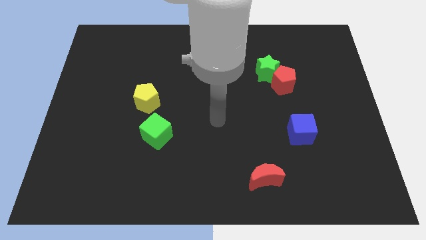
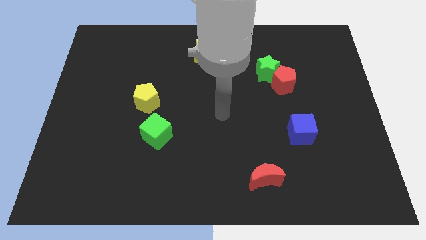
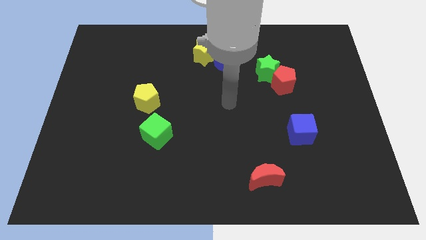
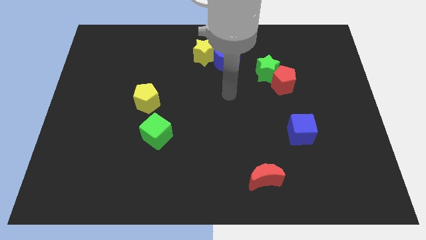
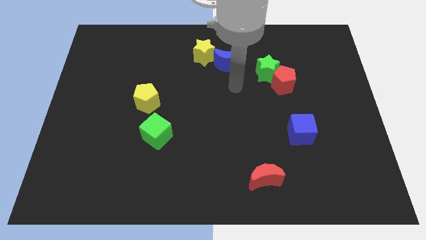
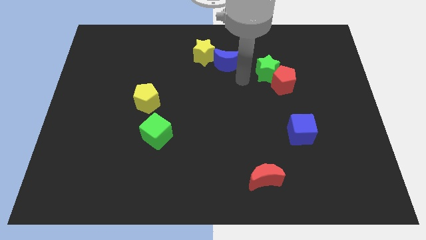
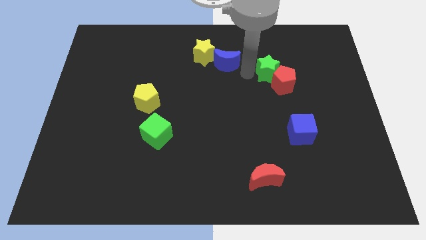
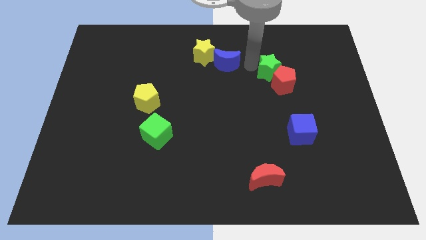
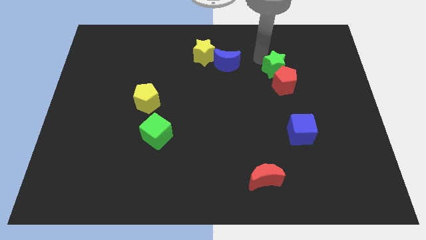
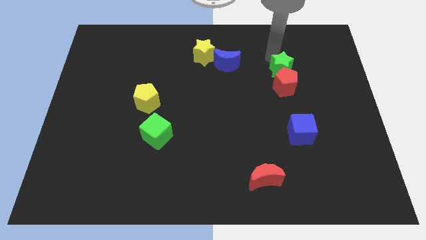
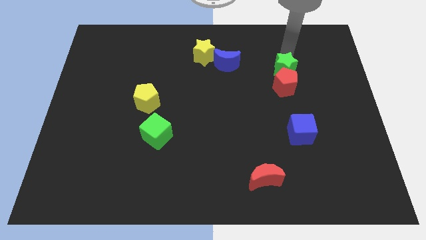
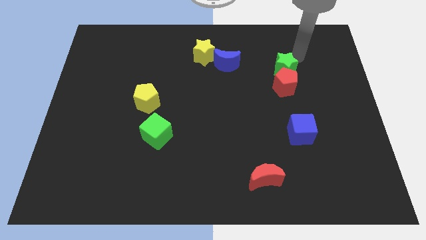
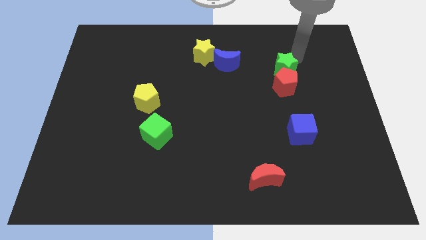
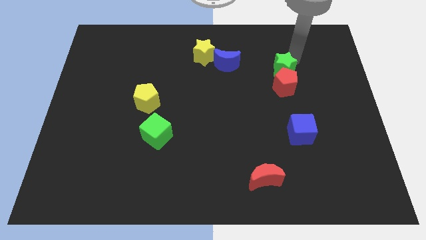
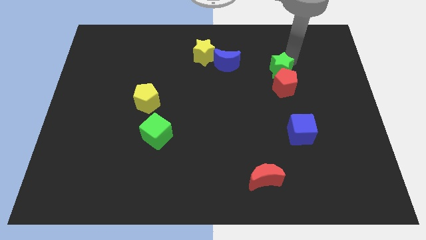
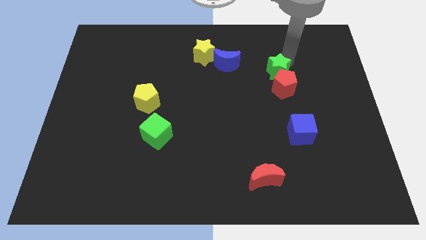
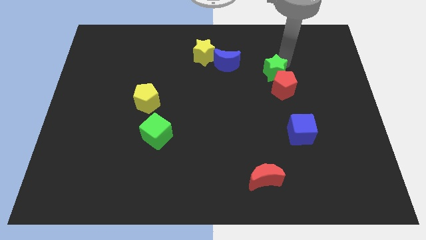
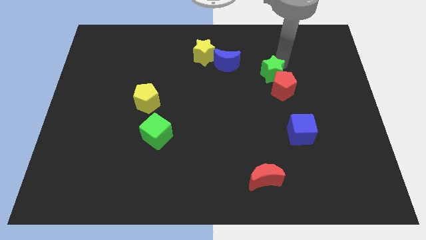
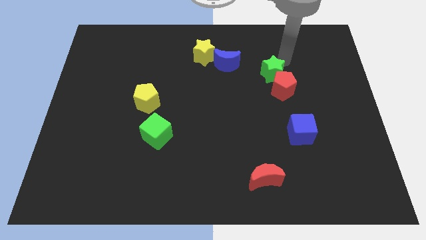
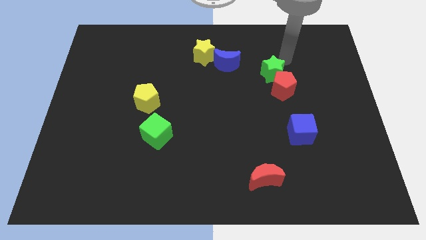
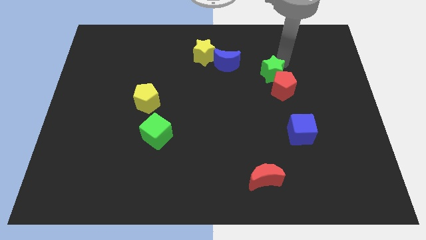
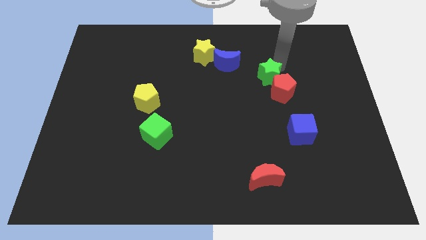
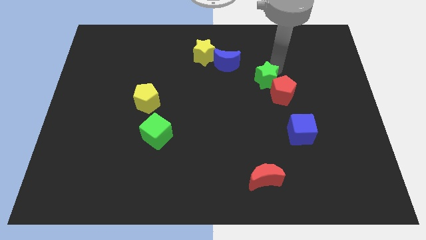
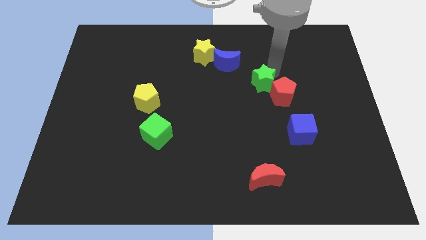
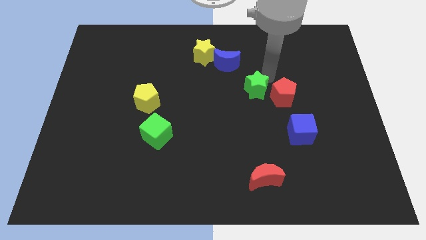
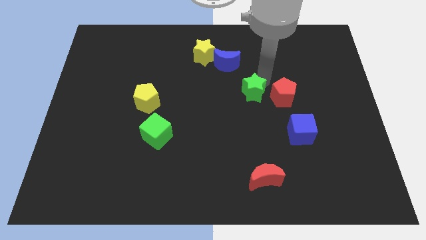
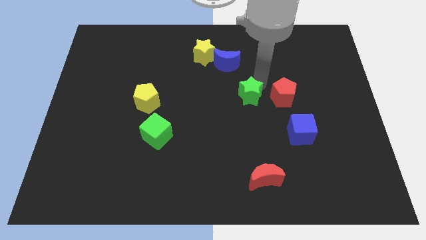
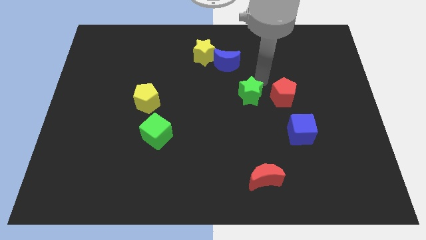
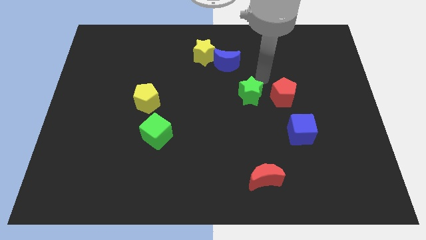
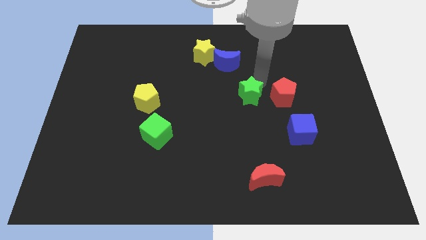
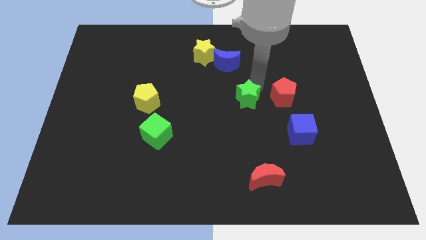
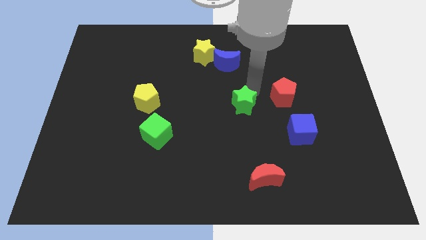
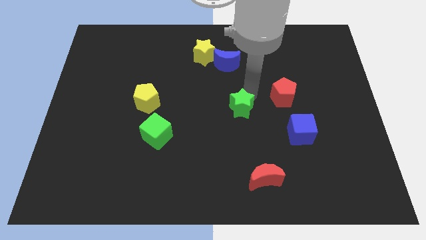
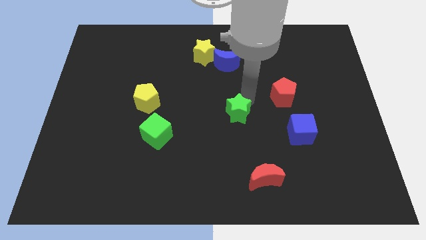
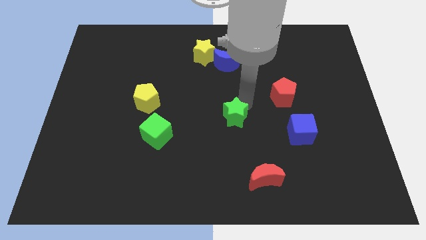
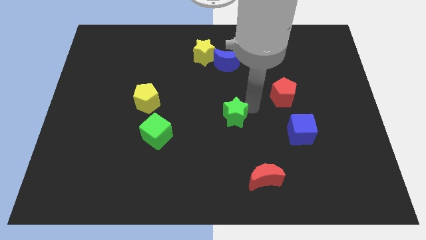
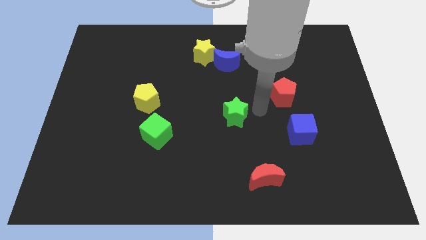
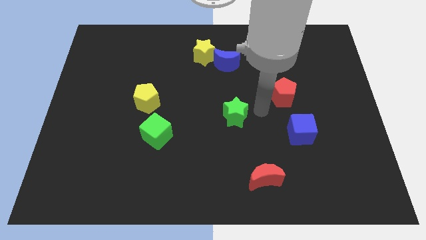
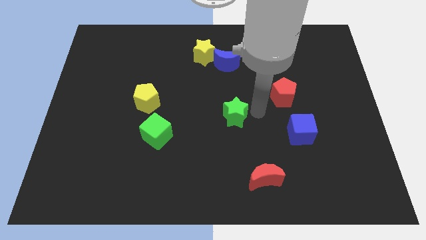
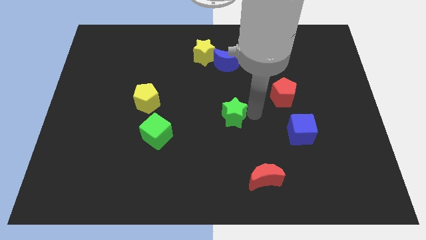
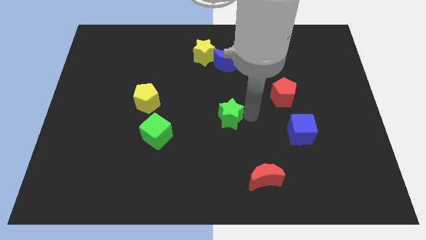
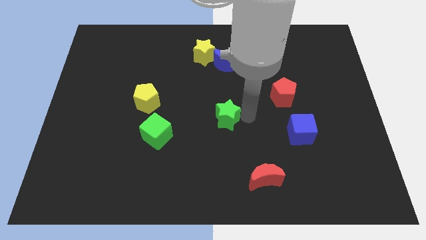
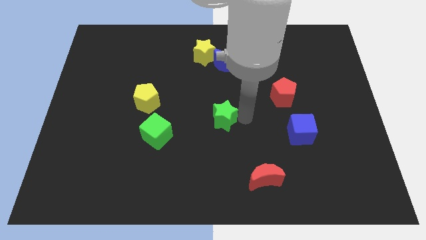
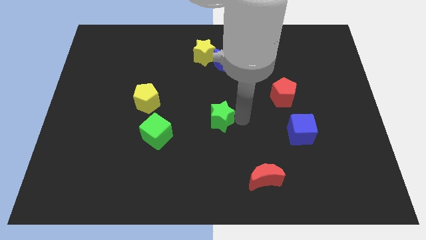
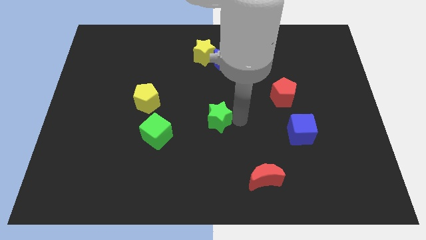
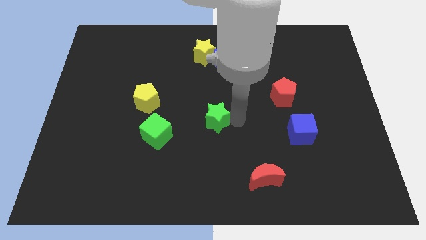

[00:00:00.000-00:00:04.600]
slide the green star down and left diagonally

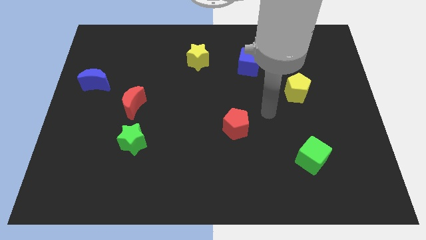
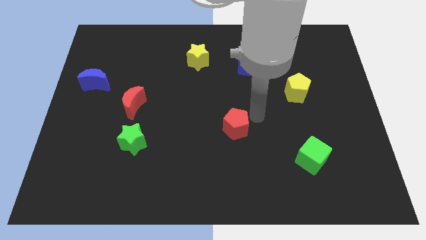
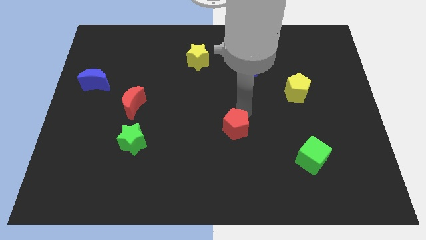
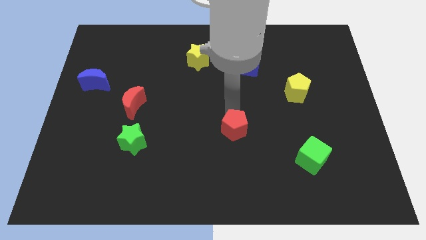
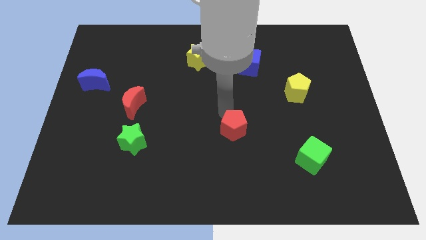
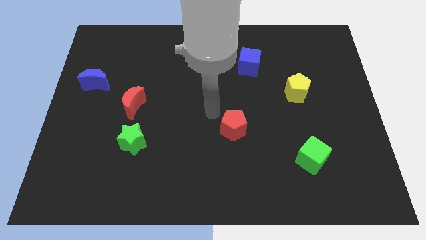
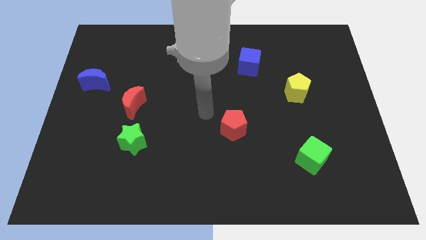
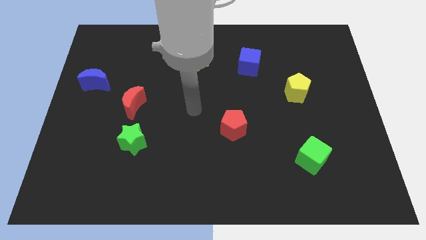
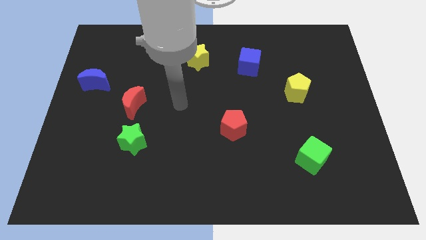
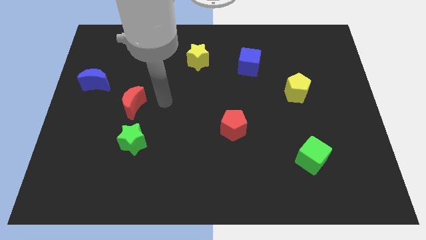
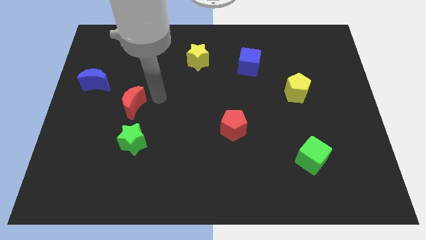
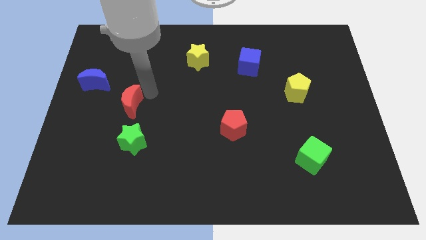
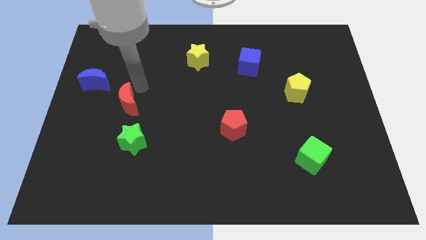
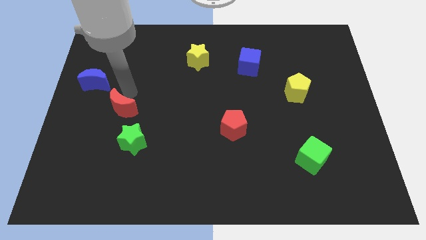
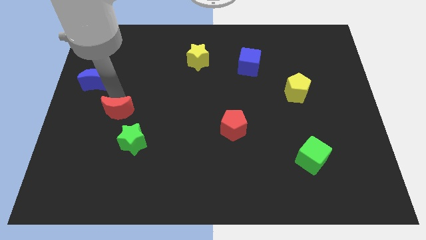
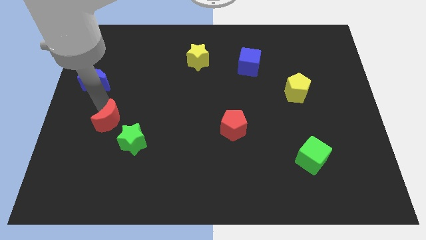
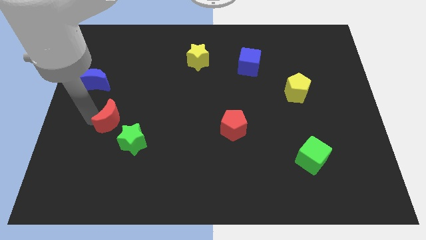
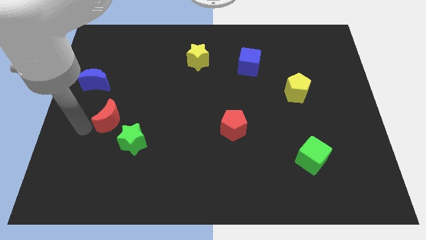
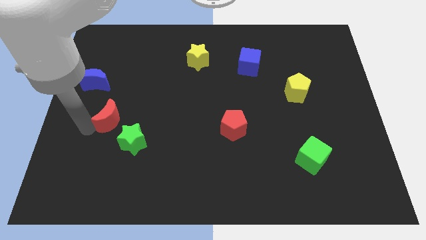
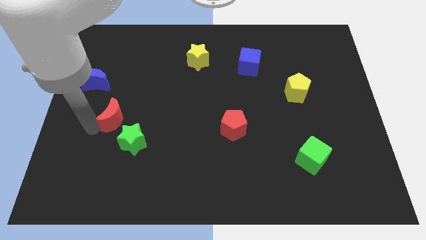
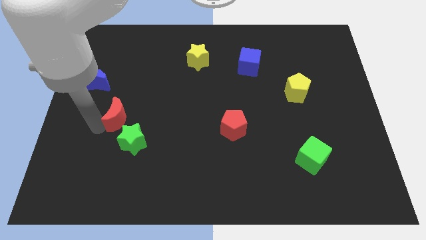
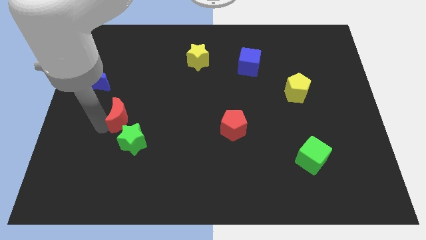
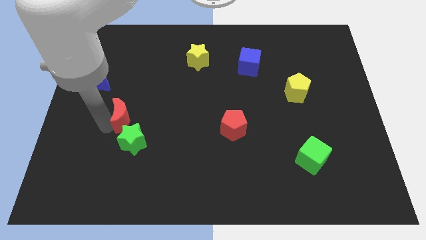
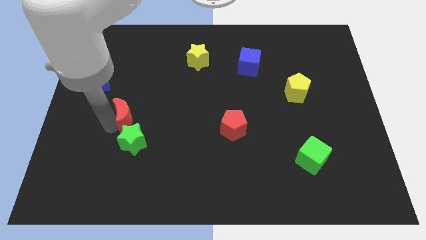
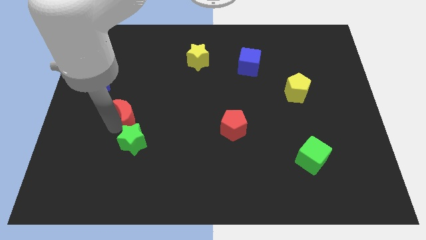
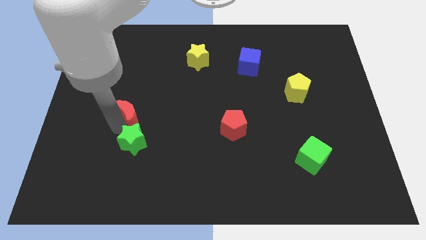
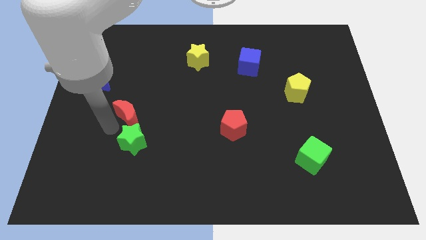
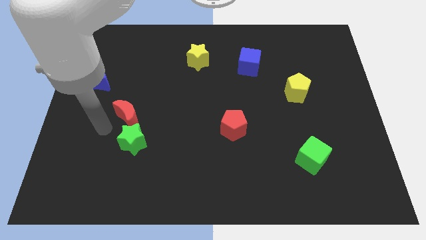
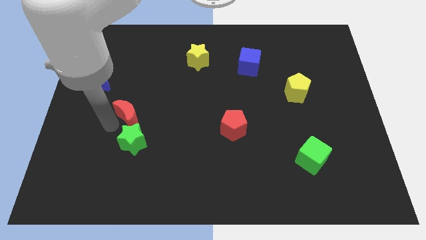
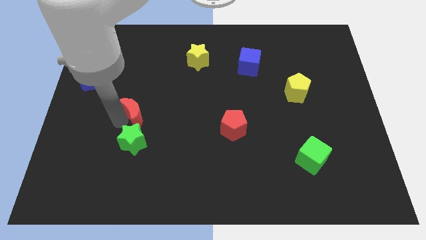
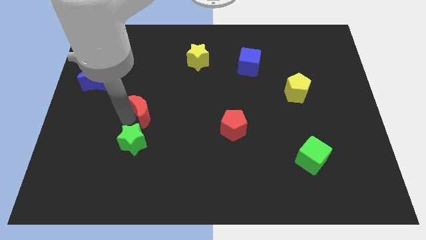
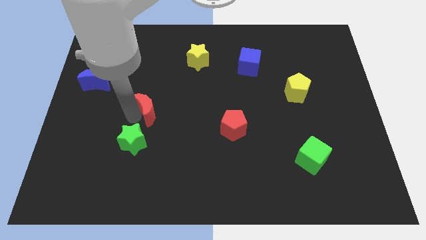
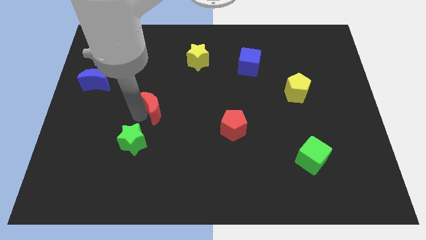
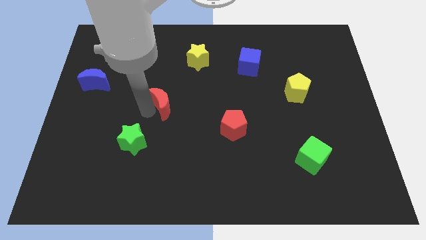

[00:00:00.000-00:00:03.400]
slightly move the red moon to the right
